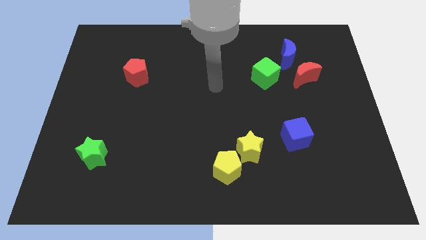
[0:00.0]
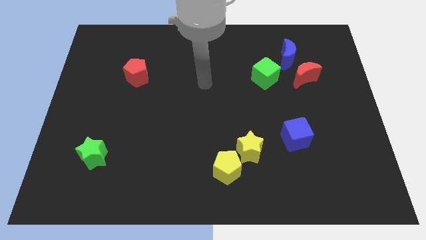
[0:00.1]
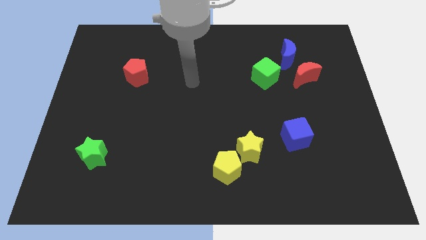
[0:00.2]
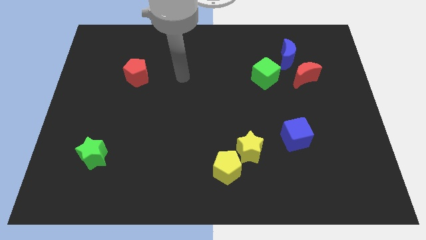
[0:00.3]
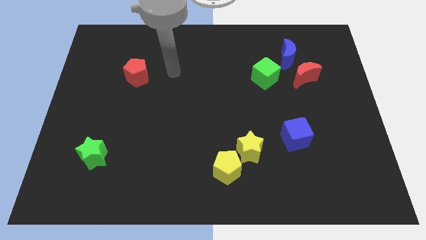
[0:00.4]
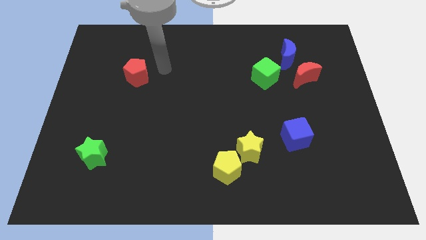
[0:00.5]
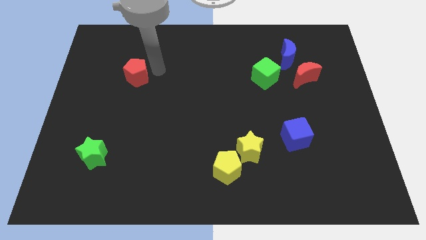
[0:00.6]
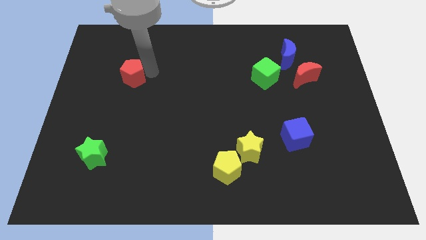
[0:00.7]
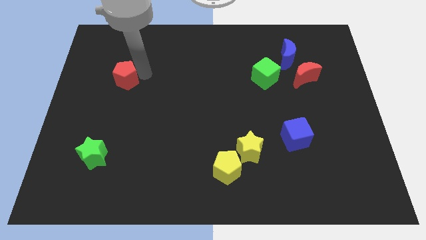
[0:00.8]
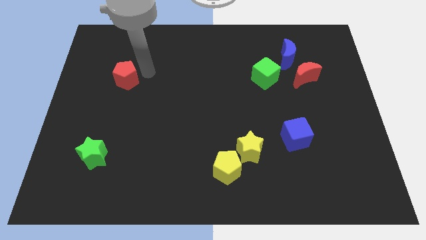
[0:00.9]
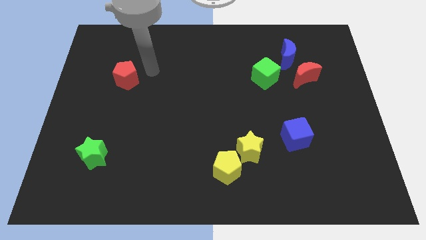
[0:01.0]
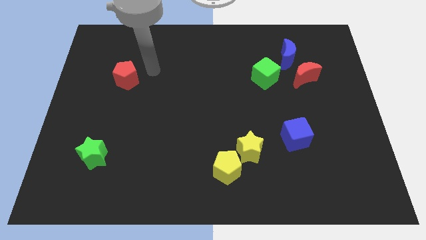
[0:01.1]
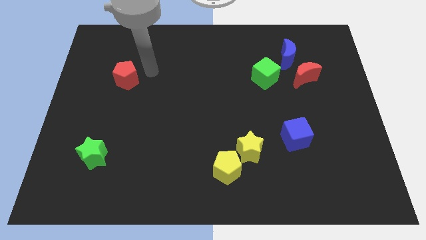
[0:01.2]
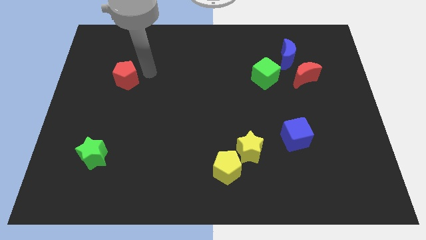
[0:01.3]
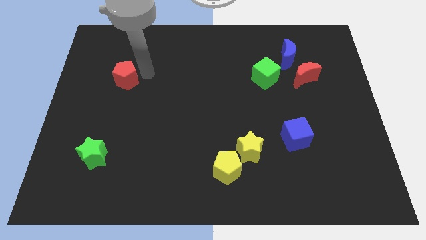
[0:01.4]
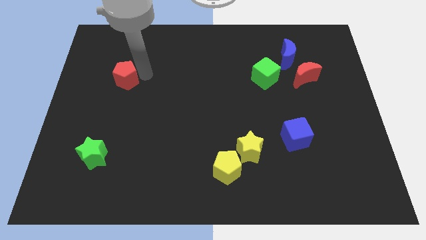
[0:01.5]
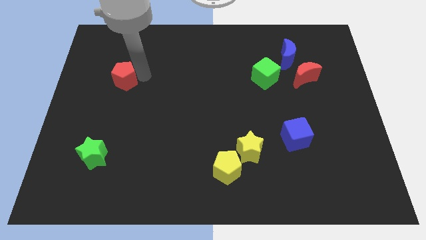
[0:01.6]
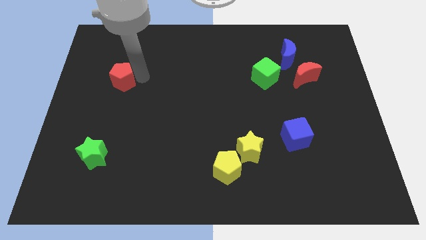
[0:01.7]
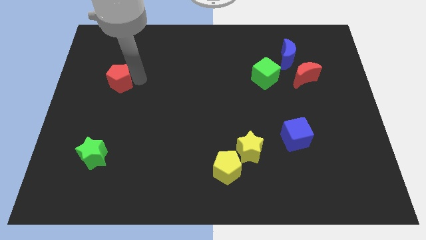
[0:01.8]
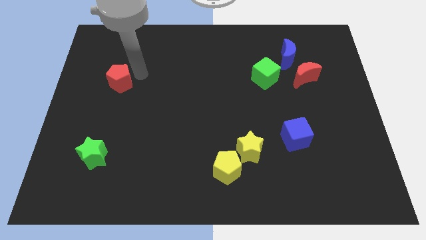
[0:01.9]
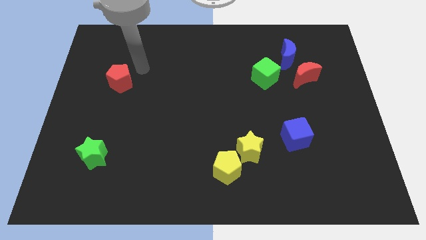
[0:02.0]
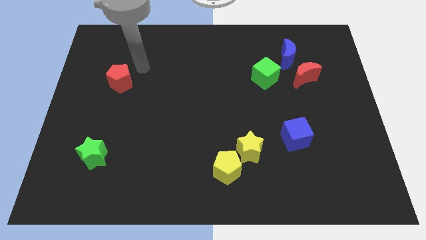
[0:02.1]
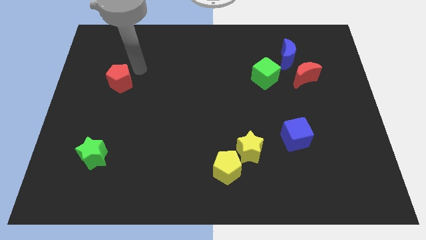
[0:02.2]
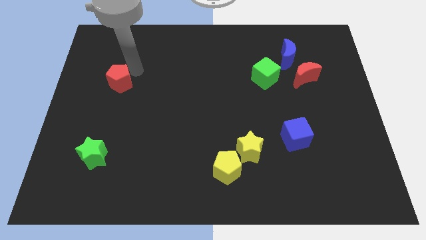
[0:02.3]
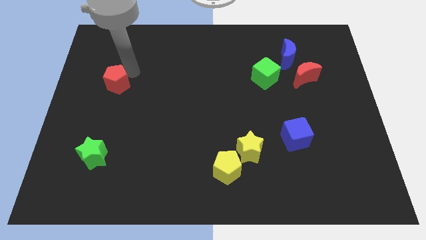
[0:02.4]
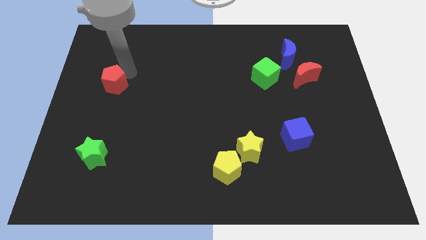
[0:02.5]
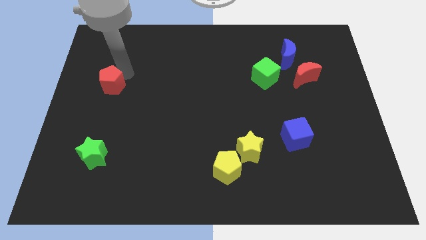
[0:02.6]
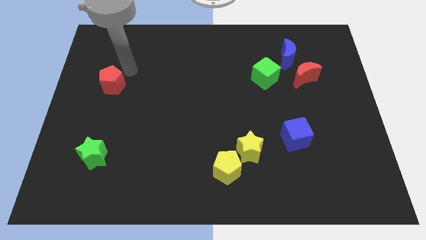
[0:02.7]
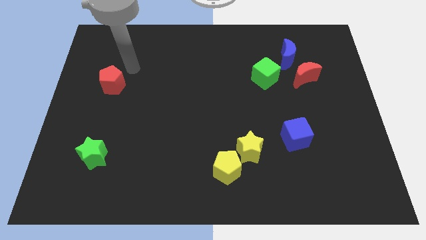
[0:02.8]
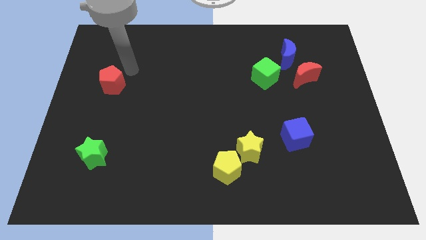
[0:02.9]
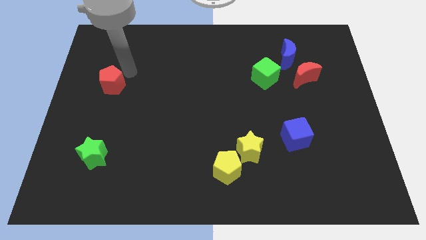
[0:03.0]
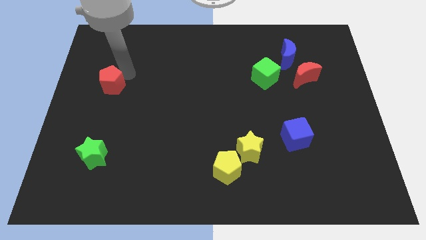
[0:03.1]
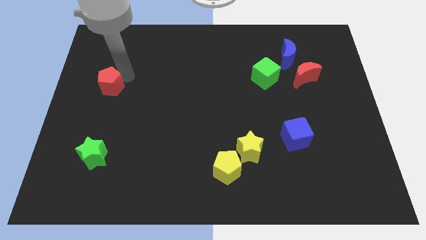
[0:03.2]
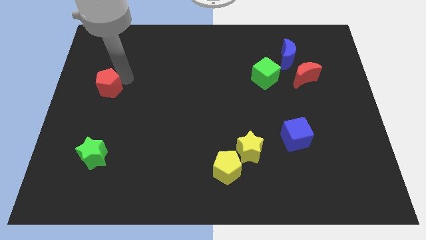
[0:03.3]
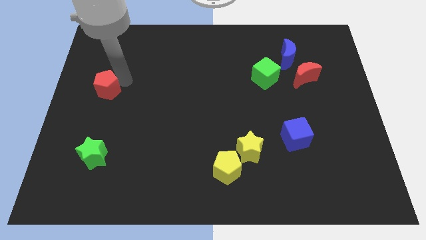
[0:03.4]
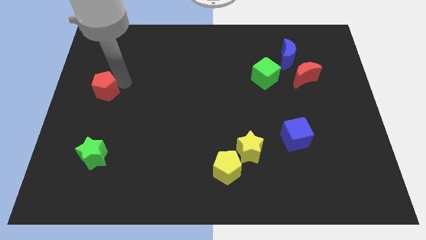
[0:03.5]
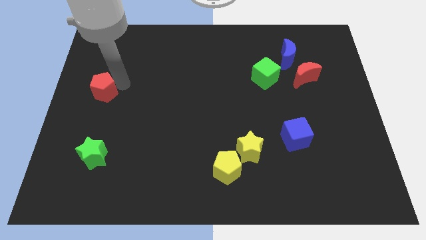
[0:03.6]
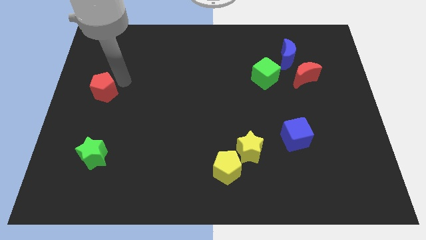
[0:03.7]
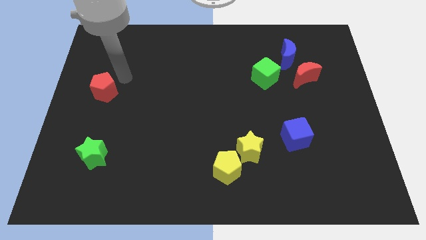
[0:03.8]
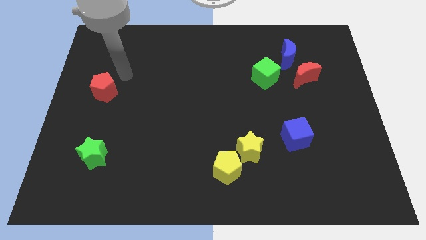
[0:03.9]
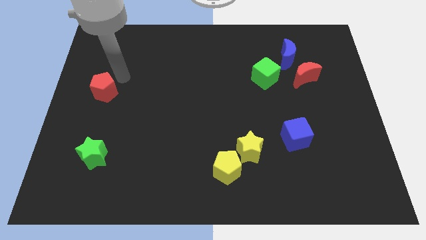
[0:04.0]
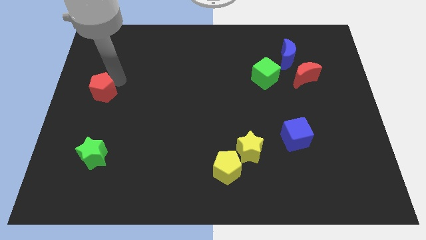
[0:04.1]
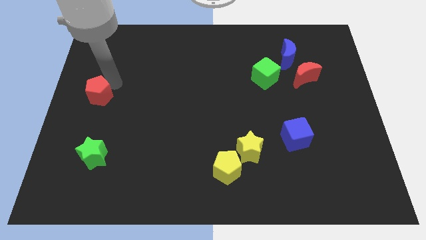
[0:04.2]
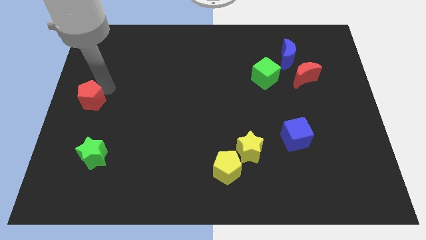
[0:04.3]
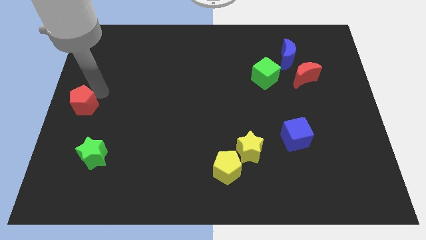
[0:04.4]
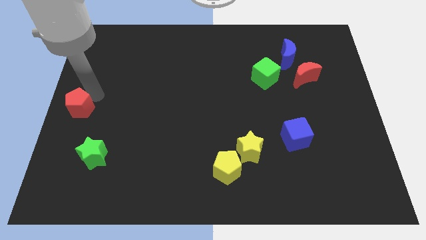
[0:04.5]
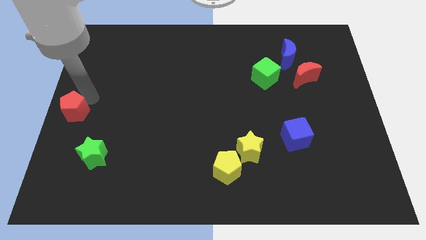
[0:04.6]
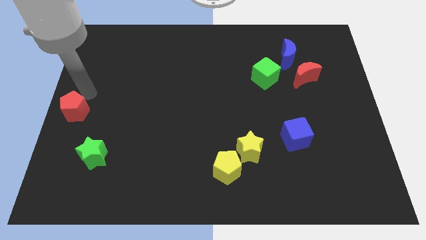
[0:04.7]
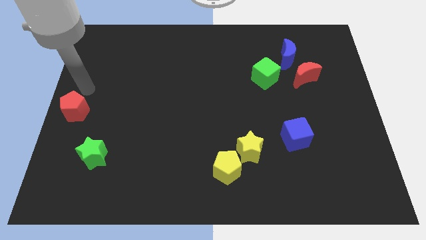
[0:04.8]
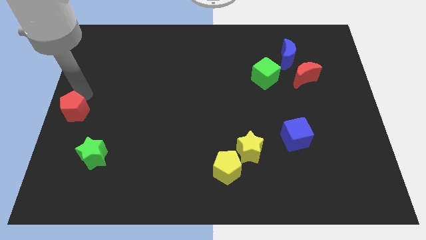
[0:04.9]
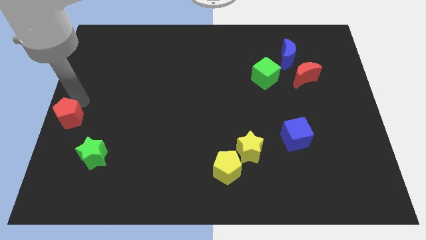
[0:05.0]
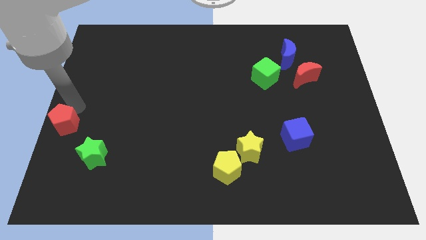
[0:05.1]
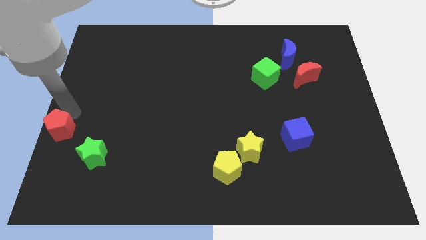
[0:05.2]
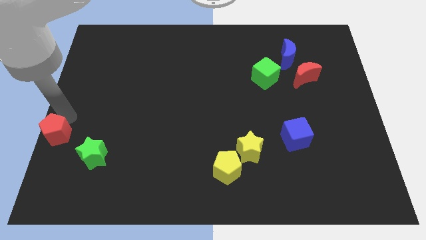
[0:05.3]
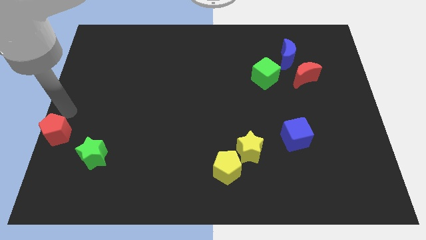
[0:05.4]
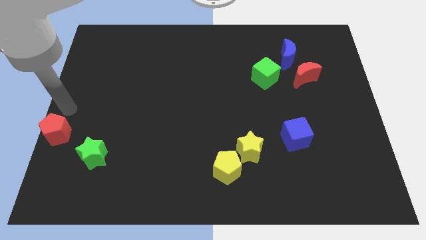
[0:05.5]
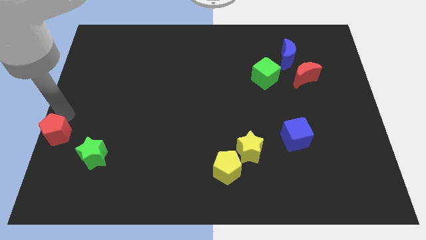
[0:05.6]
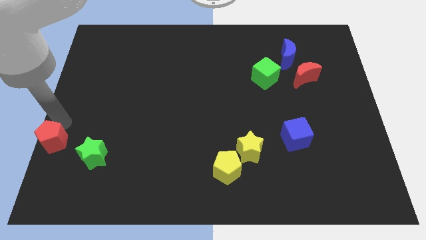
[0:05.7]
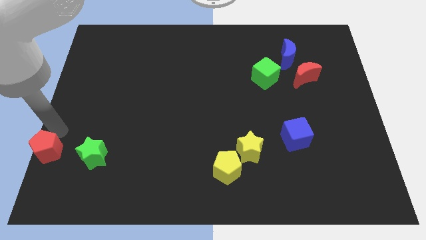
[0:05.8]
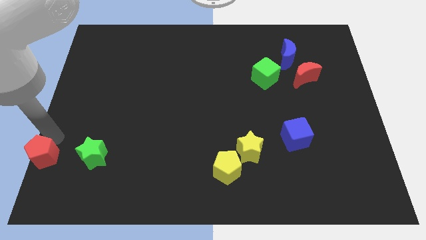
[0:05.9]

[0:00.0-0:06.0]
put the red pentagon to the bottom left of the board
